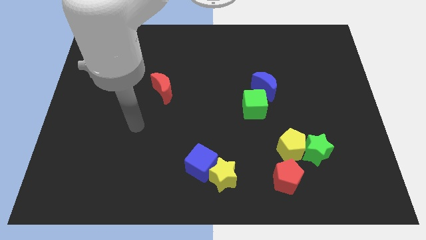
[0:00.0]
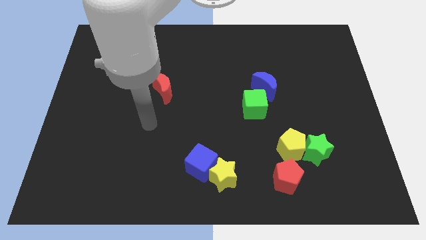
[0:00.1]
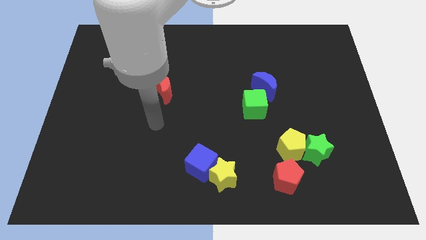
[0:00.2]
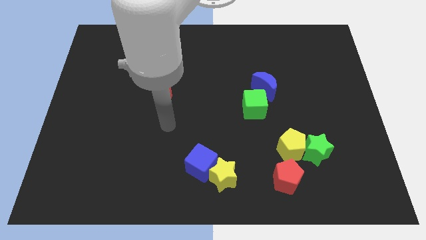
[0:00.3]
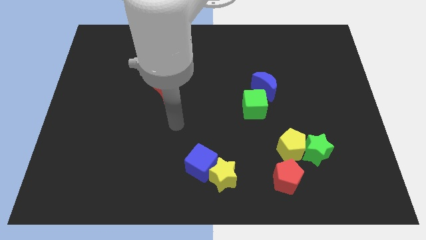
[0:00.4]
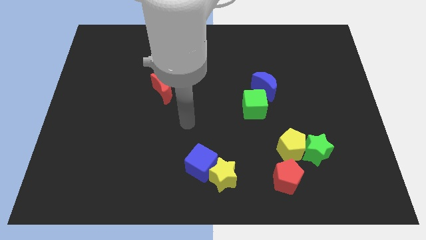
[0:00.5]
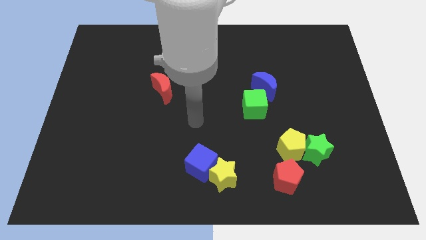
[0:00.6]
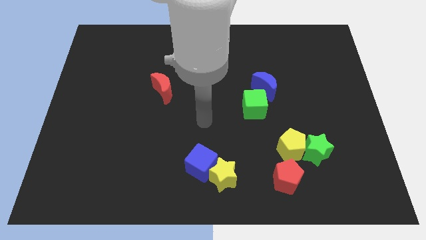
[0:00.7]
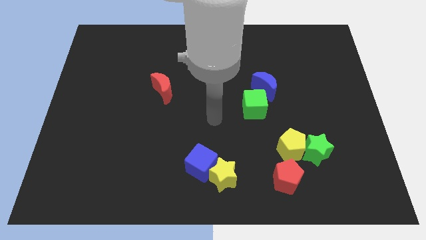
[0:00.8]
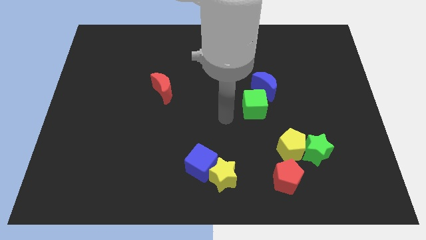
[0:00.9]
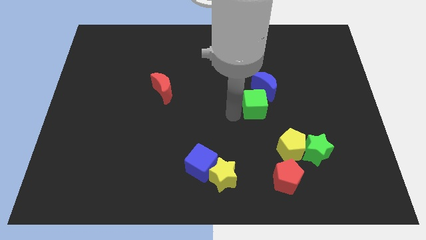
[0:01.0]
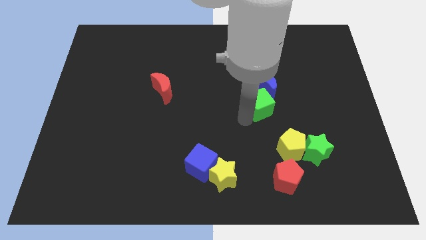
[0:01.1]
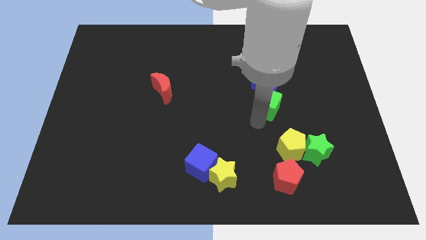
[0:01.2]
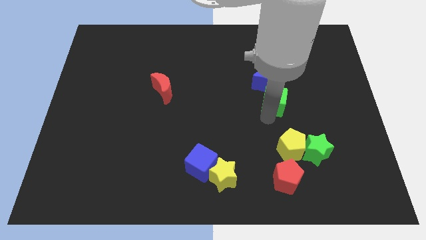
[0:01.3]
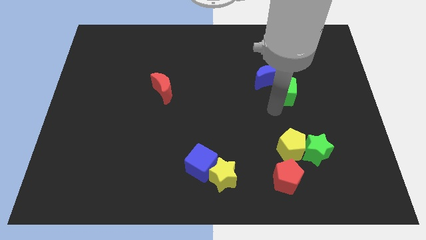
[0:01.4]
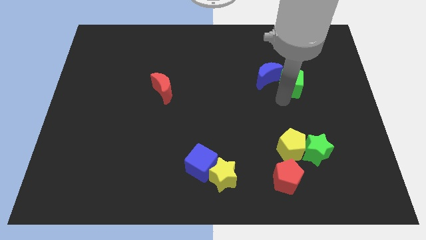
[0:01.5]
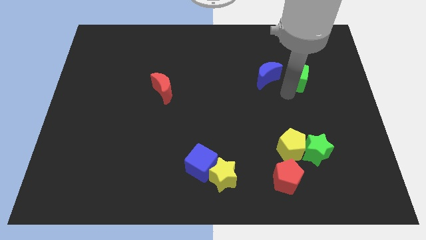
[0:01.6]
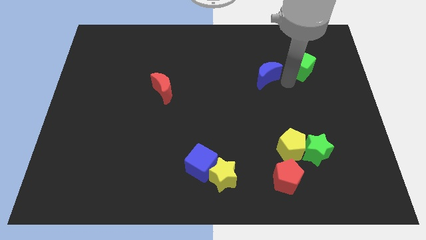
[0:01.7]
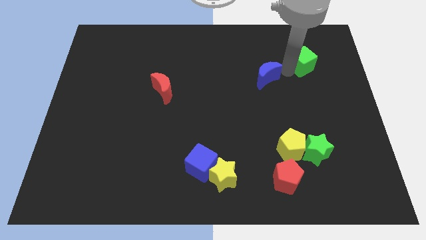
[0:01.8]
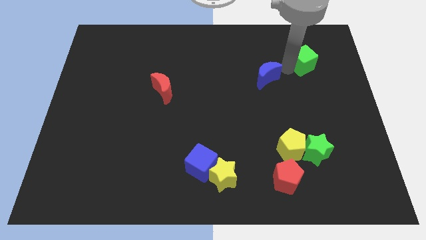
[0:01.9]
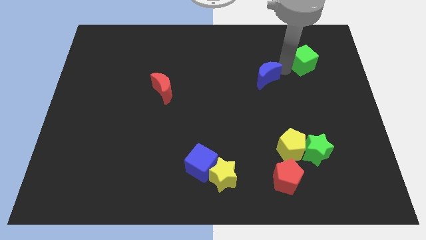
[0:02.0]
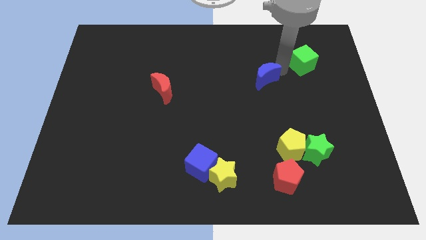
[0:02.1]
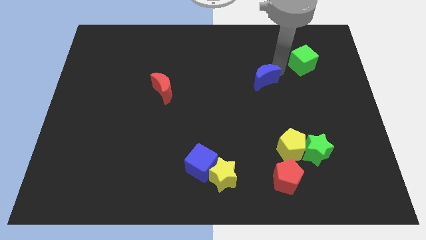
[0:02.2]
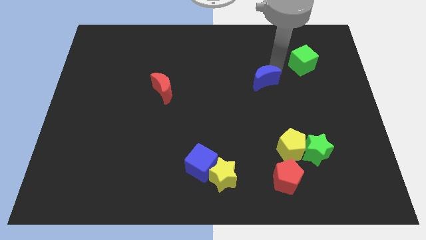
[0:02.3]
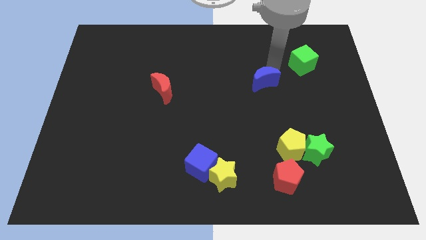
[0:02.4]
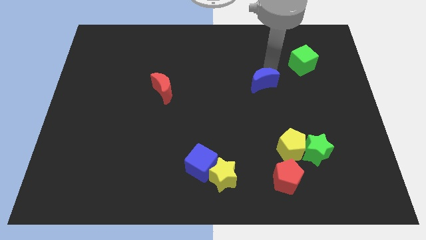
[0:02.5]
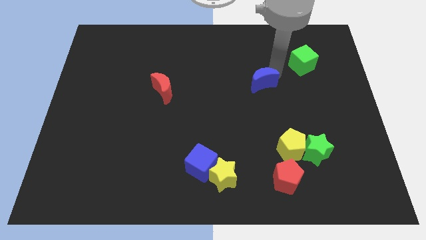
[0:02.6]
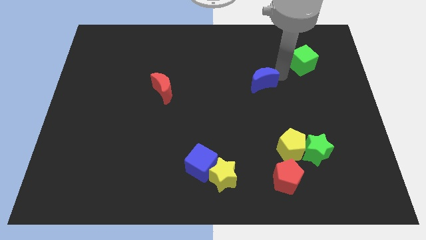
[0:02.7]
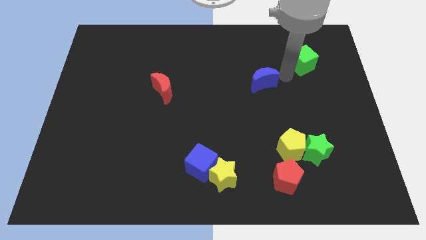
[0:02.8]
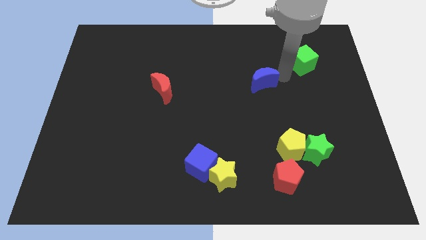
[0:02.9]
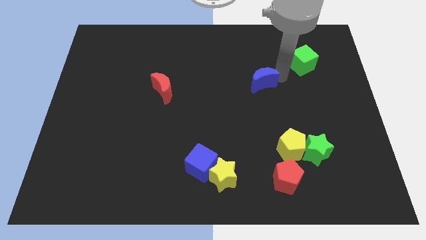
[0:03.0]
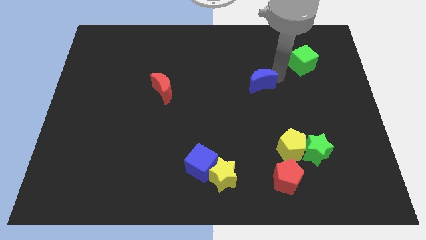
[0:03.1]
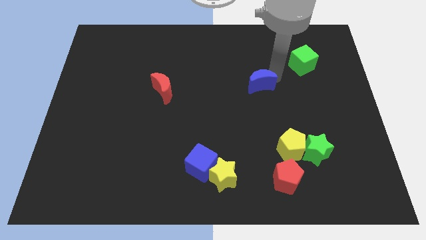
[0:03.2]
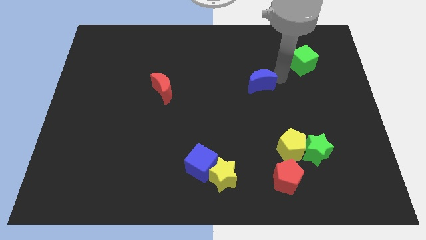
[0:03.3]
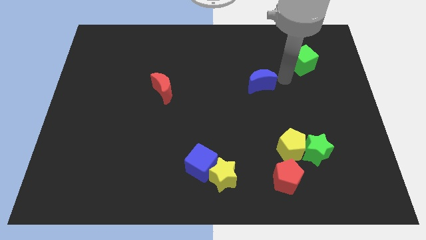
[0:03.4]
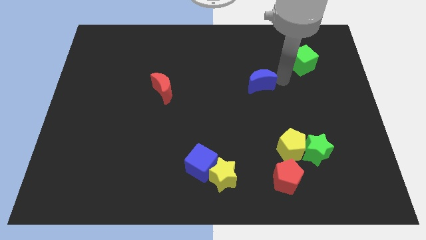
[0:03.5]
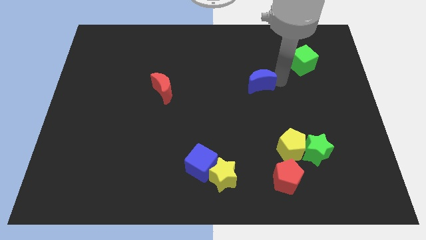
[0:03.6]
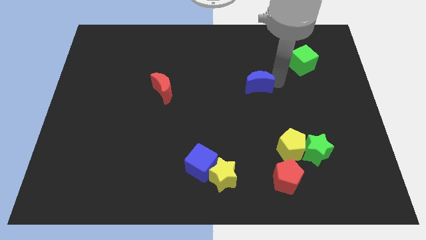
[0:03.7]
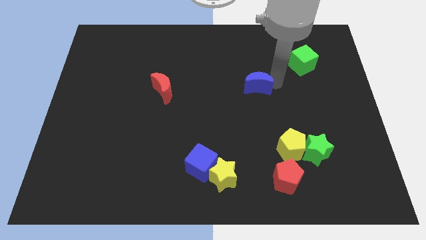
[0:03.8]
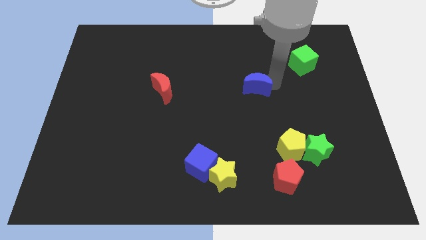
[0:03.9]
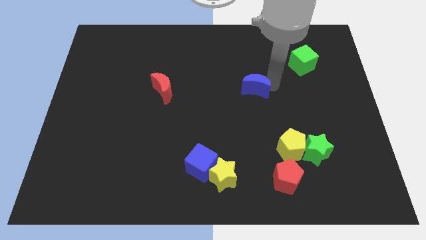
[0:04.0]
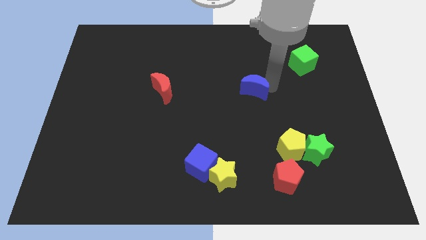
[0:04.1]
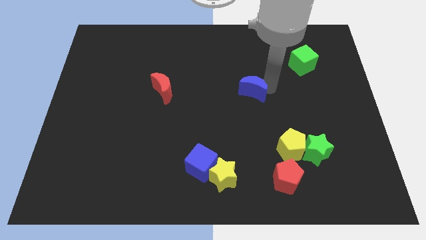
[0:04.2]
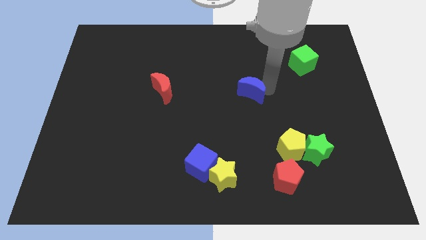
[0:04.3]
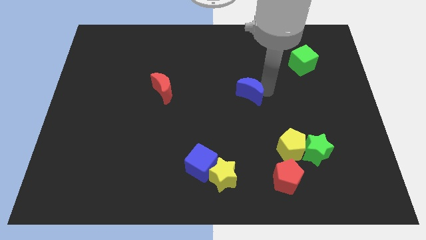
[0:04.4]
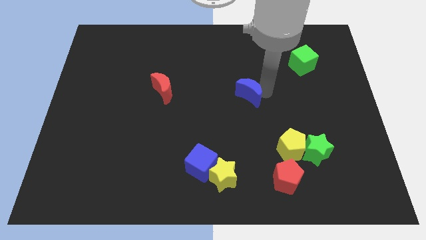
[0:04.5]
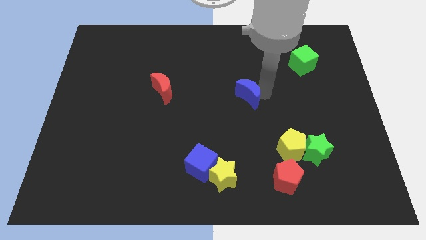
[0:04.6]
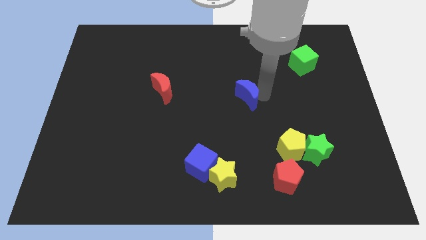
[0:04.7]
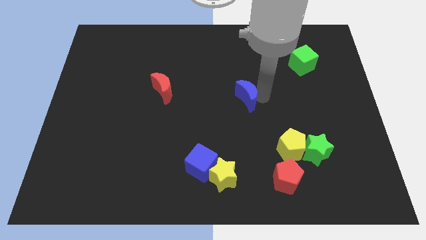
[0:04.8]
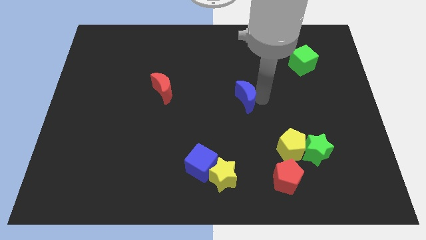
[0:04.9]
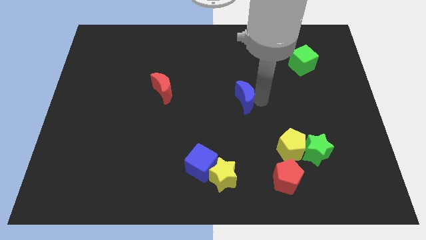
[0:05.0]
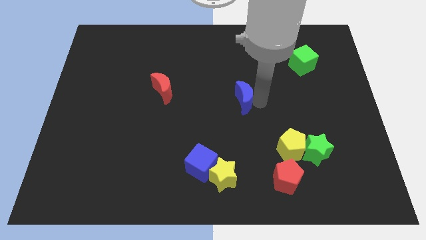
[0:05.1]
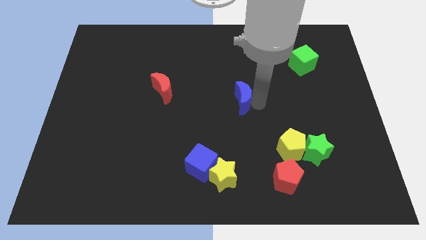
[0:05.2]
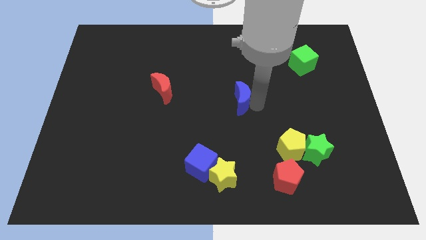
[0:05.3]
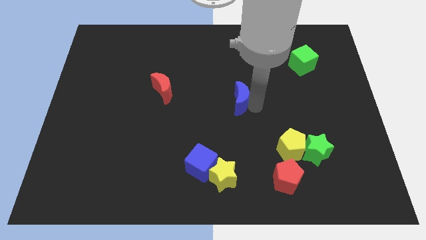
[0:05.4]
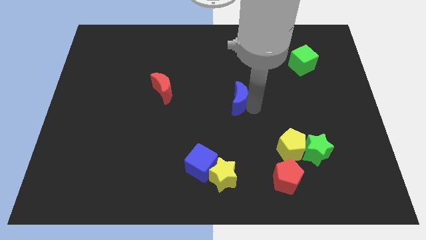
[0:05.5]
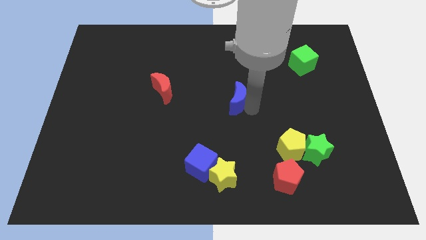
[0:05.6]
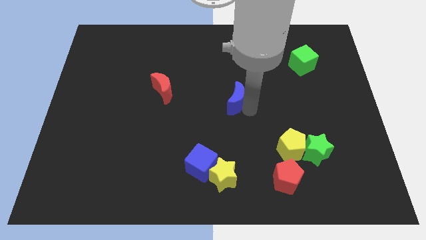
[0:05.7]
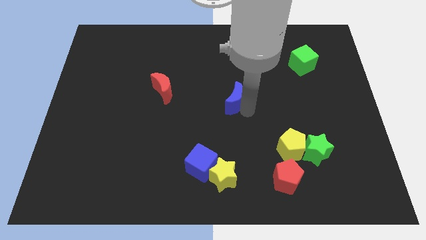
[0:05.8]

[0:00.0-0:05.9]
slide the blue moon to the left a bit

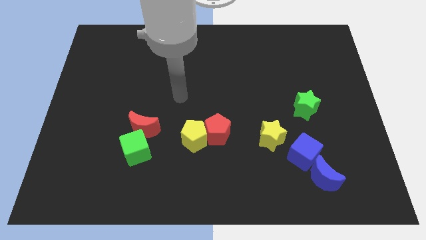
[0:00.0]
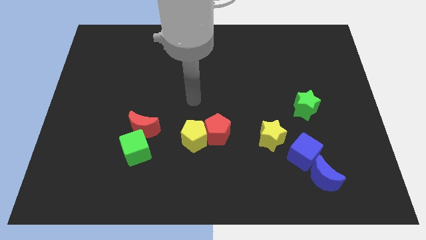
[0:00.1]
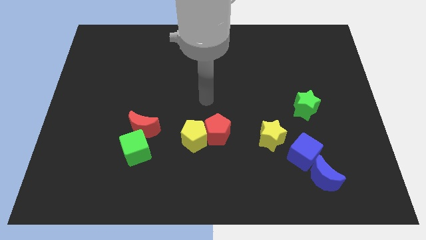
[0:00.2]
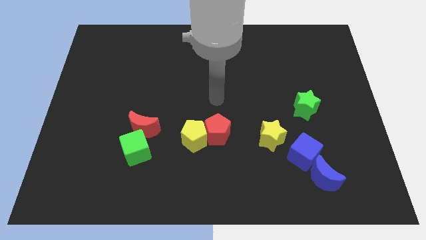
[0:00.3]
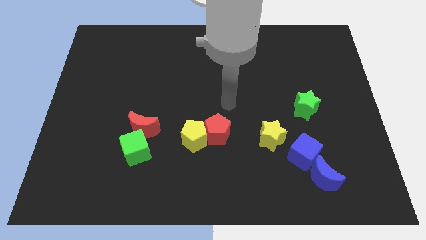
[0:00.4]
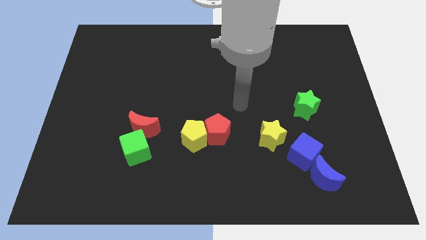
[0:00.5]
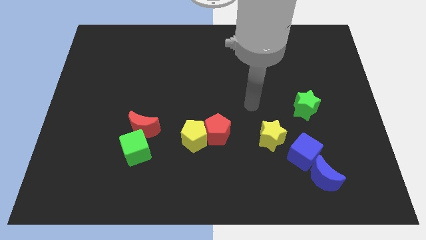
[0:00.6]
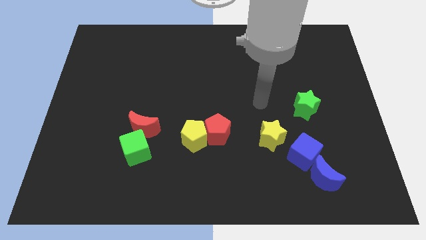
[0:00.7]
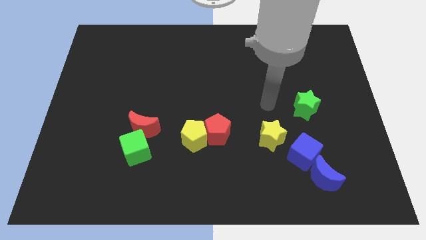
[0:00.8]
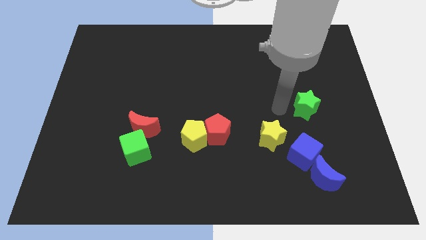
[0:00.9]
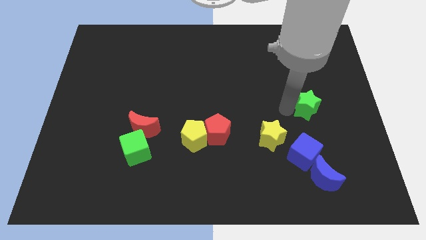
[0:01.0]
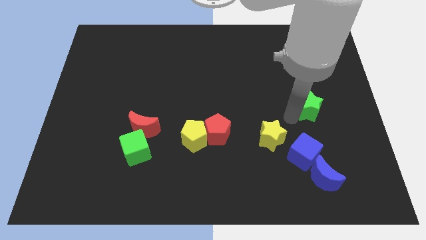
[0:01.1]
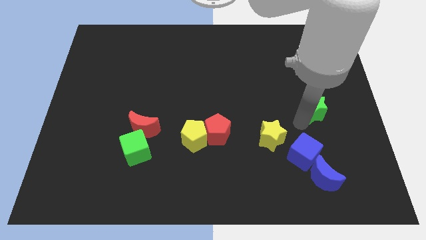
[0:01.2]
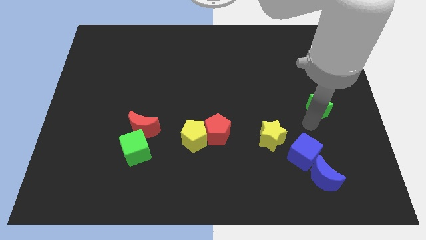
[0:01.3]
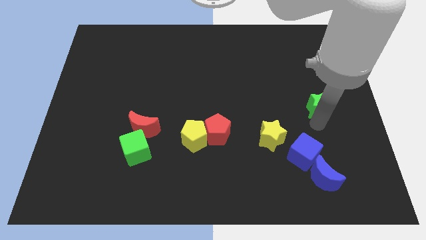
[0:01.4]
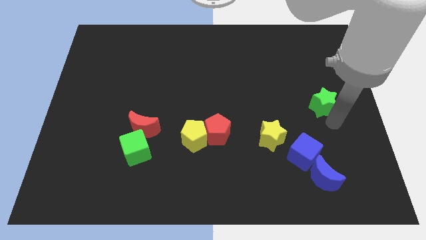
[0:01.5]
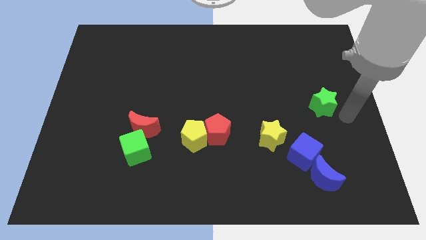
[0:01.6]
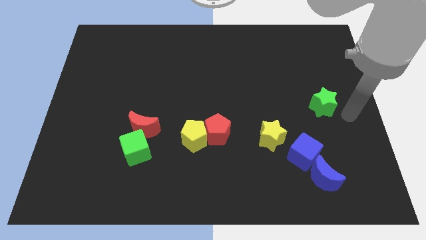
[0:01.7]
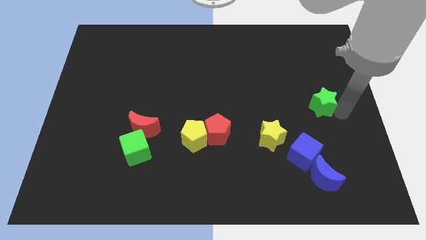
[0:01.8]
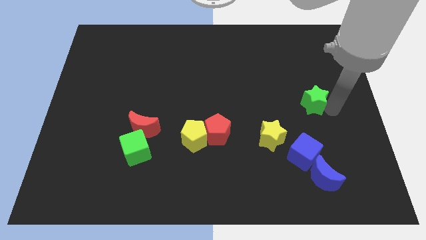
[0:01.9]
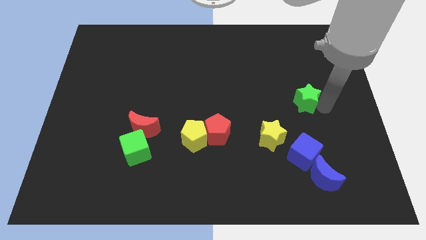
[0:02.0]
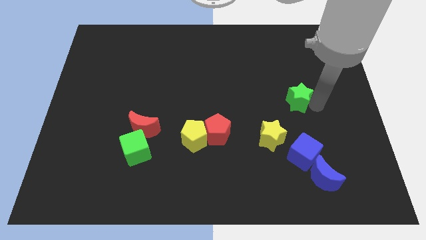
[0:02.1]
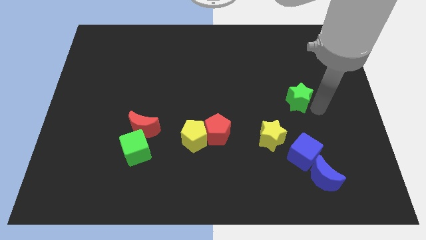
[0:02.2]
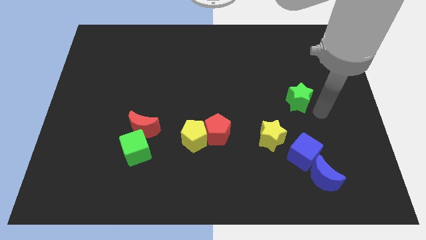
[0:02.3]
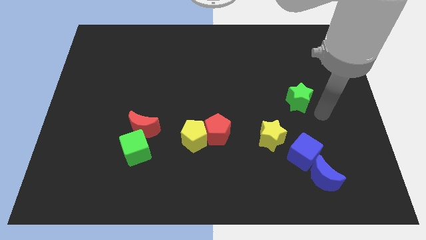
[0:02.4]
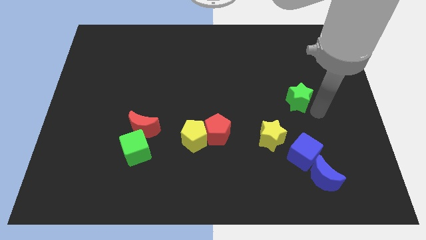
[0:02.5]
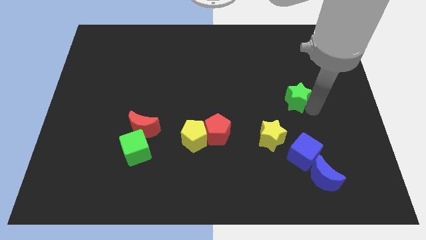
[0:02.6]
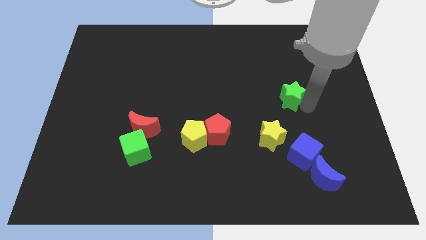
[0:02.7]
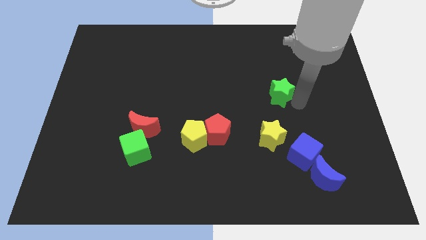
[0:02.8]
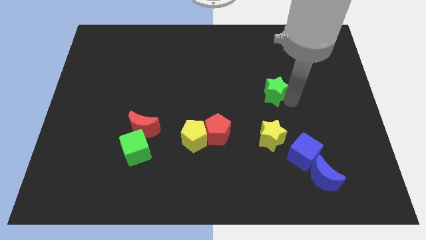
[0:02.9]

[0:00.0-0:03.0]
move the green star up and left diagonally somewhat
